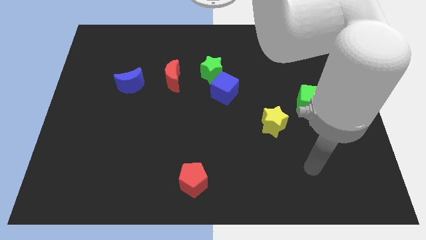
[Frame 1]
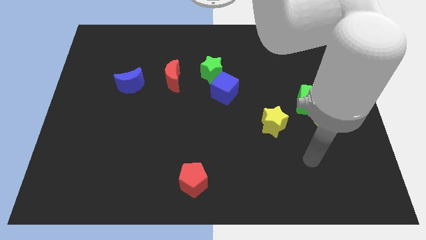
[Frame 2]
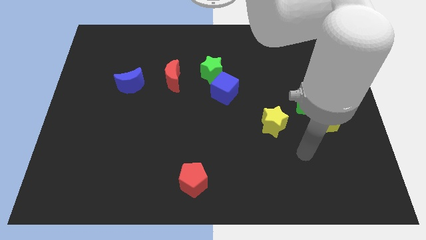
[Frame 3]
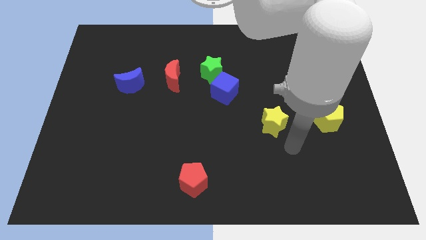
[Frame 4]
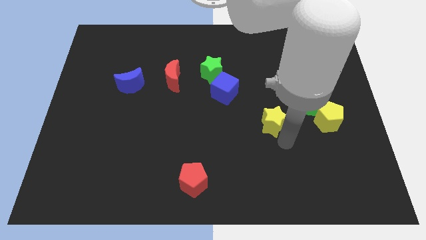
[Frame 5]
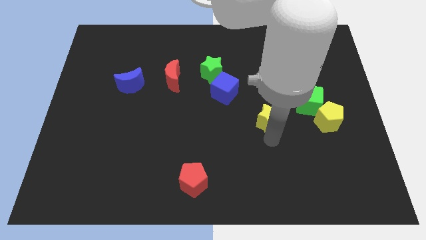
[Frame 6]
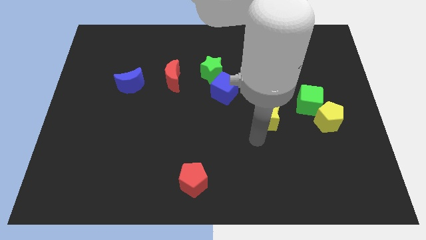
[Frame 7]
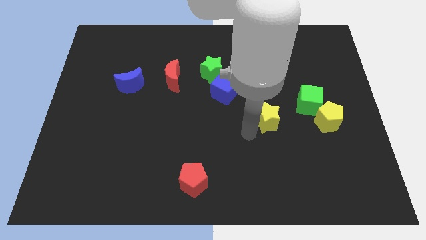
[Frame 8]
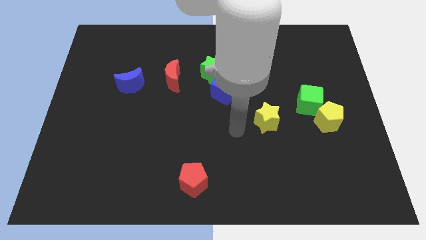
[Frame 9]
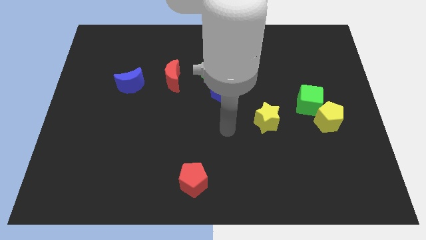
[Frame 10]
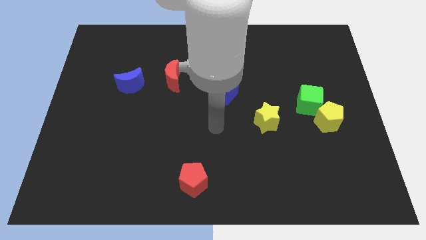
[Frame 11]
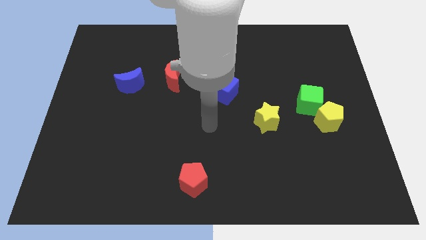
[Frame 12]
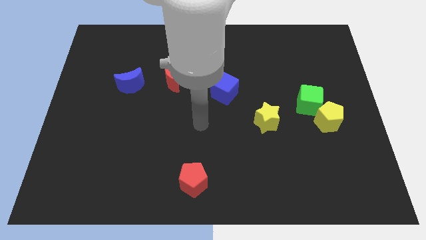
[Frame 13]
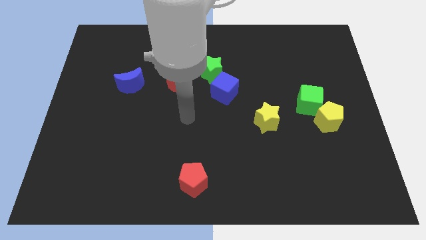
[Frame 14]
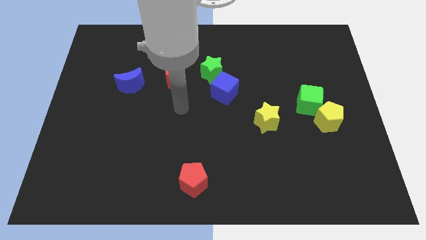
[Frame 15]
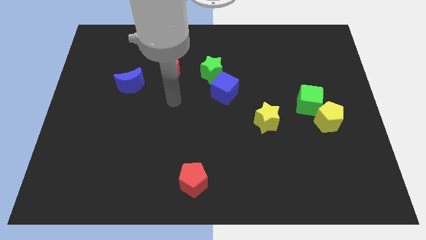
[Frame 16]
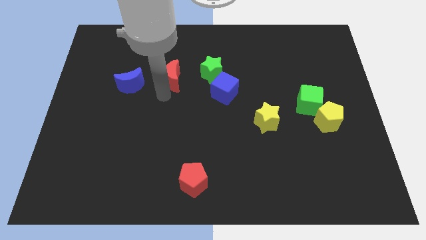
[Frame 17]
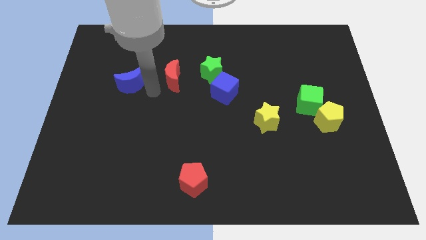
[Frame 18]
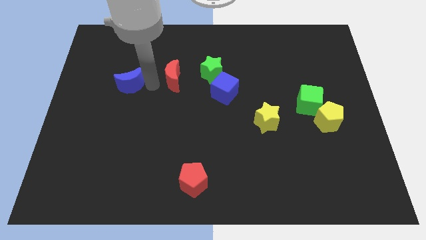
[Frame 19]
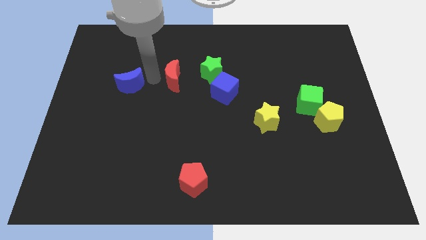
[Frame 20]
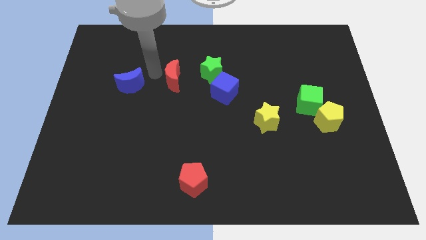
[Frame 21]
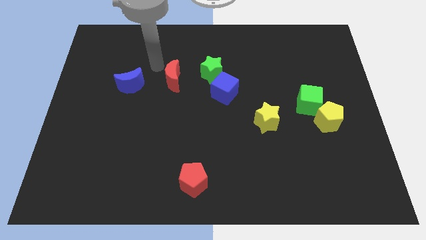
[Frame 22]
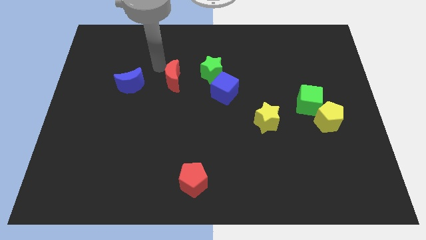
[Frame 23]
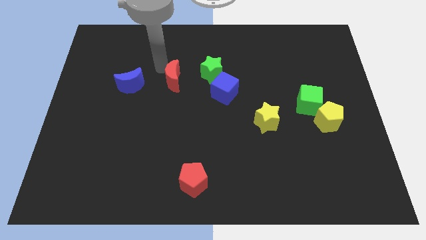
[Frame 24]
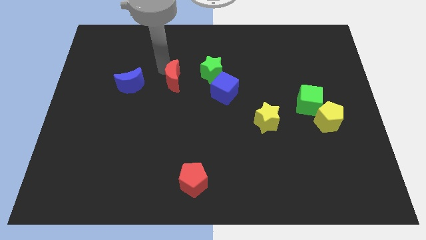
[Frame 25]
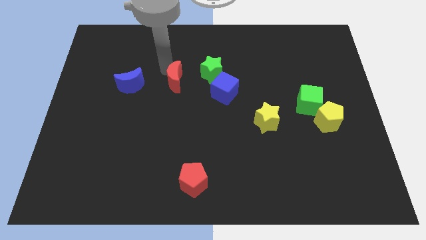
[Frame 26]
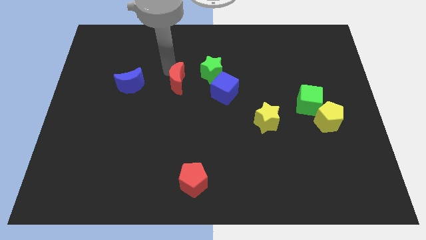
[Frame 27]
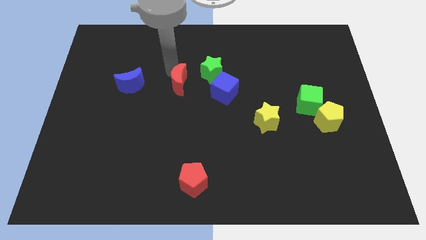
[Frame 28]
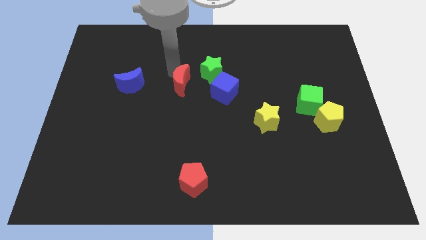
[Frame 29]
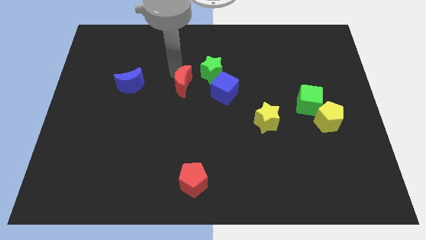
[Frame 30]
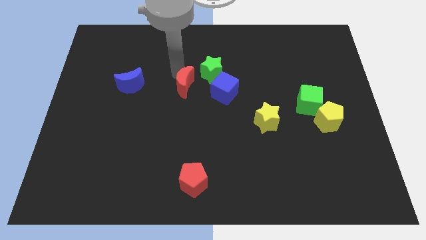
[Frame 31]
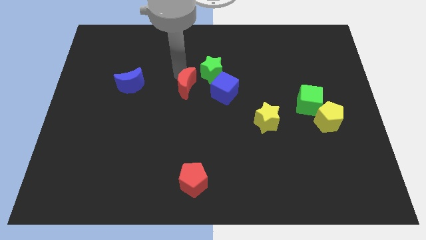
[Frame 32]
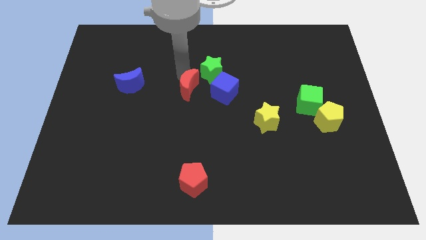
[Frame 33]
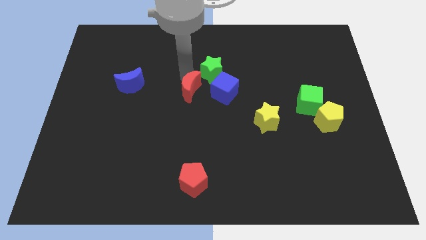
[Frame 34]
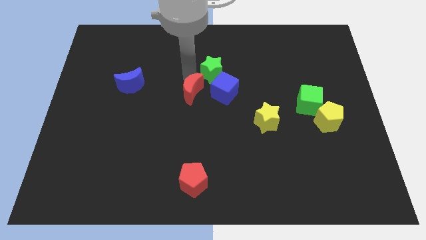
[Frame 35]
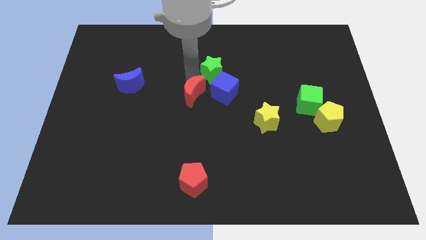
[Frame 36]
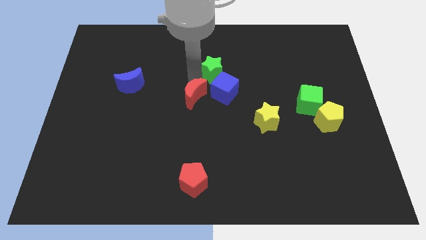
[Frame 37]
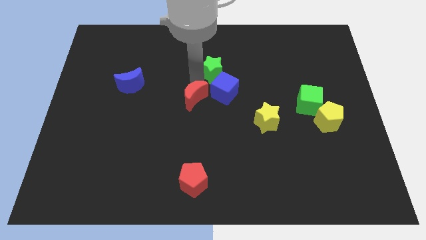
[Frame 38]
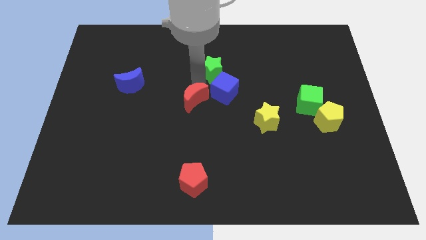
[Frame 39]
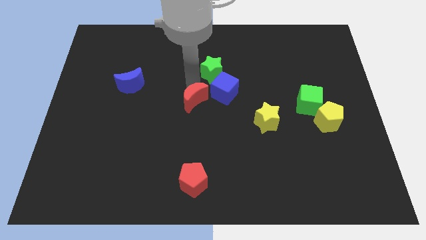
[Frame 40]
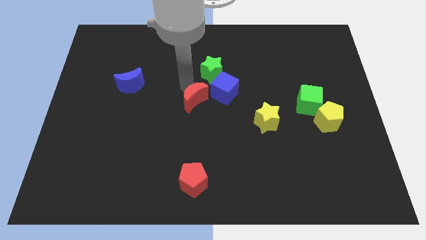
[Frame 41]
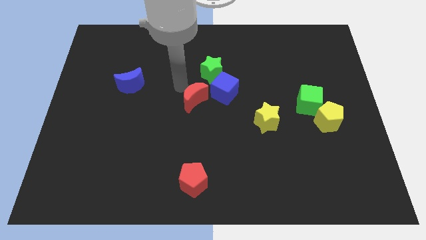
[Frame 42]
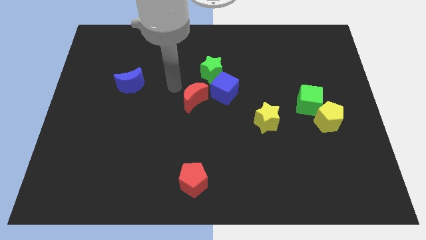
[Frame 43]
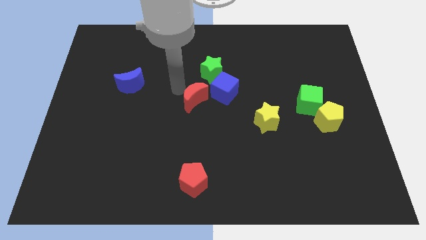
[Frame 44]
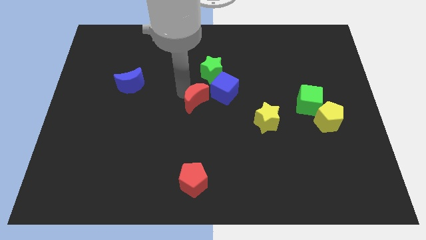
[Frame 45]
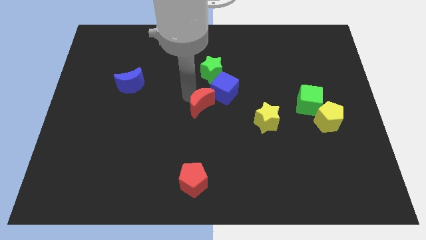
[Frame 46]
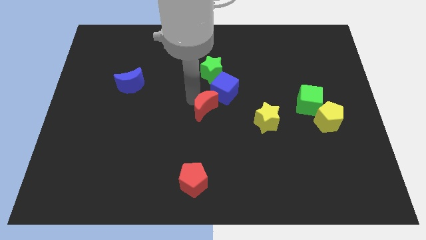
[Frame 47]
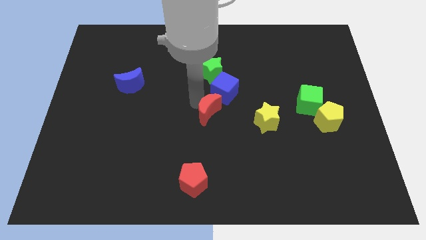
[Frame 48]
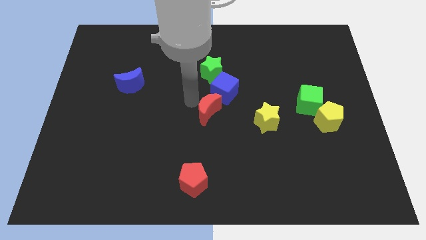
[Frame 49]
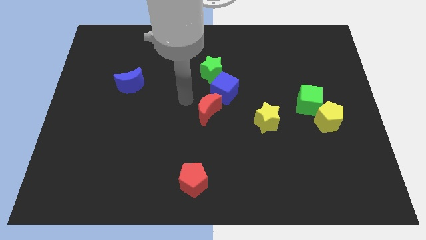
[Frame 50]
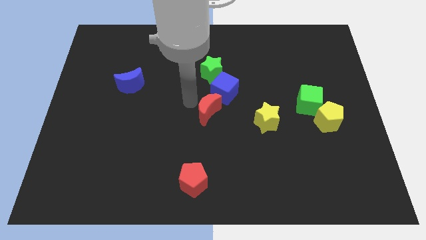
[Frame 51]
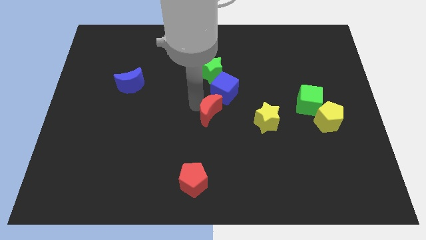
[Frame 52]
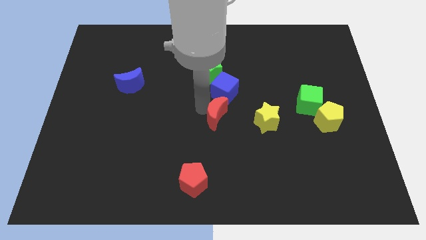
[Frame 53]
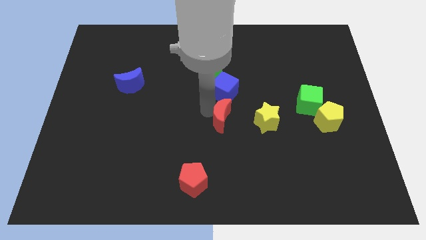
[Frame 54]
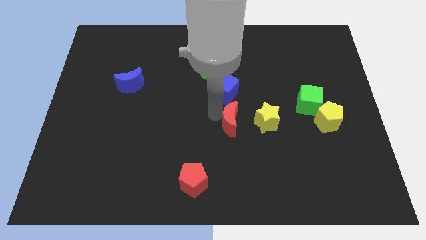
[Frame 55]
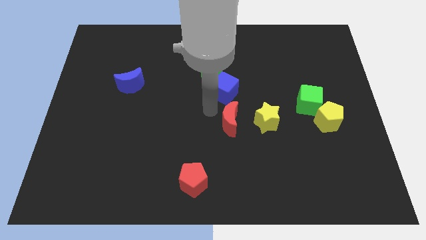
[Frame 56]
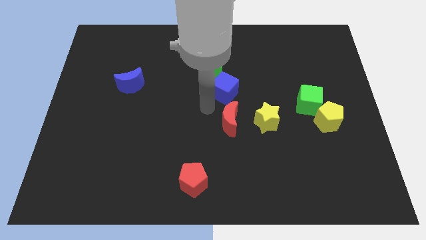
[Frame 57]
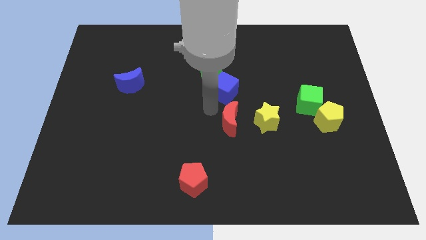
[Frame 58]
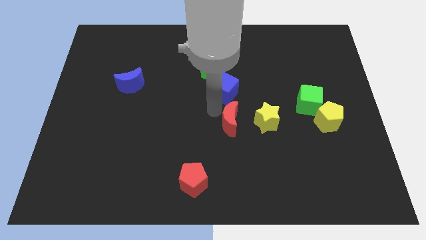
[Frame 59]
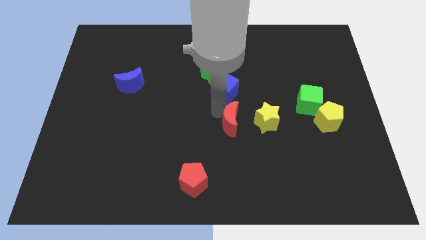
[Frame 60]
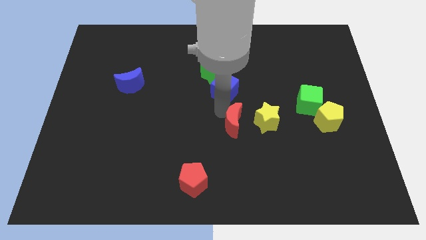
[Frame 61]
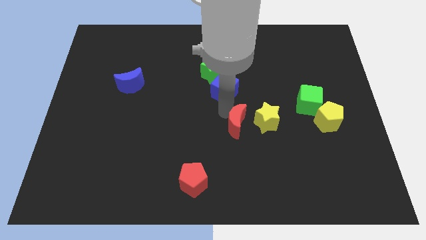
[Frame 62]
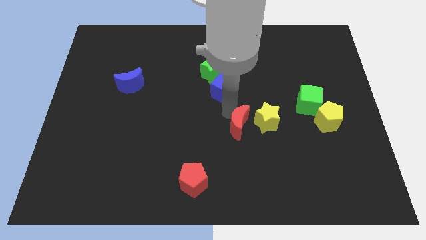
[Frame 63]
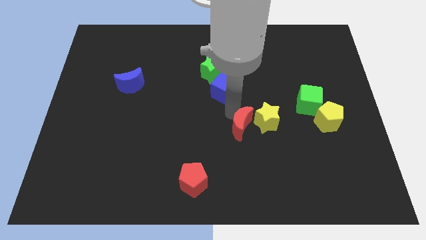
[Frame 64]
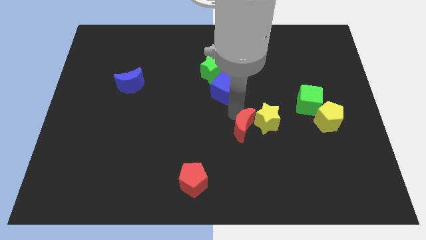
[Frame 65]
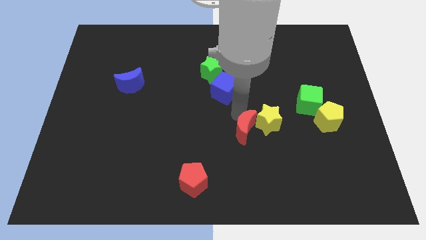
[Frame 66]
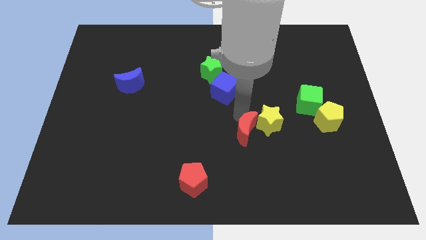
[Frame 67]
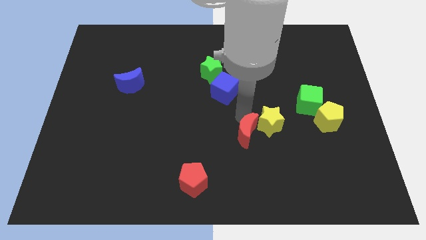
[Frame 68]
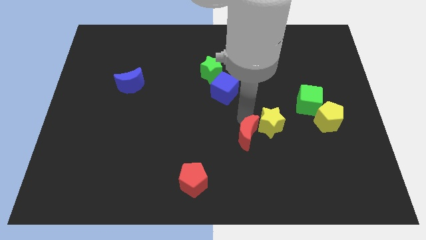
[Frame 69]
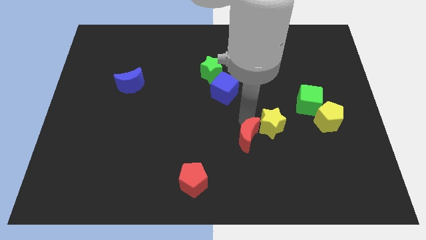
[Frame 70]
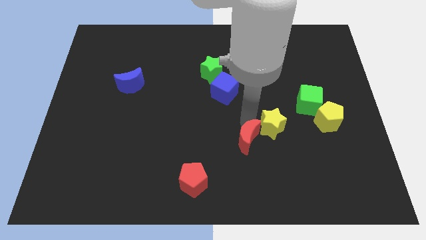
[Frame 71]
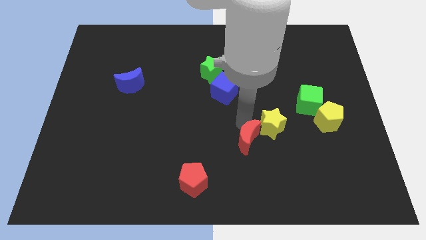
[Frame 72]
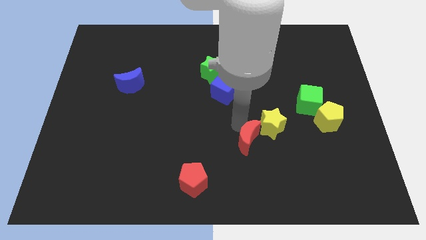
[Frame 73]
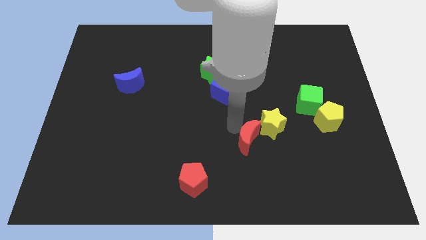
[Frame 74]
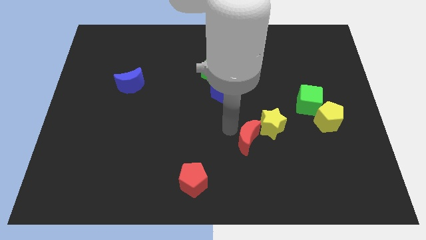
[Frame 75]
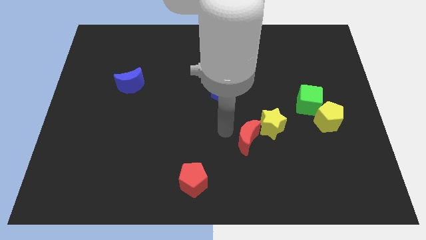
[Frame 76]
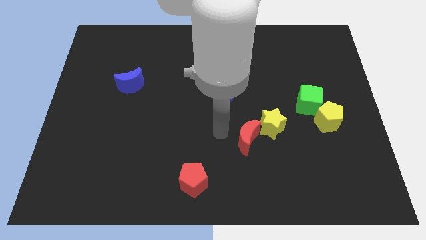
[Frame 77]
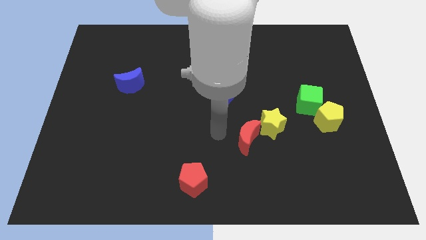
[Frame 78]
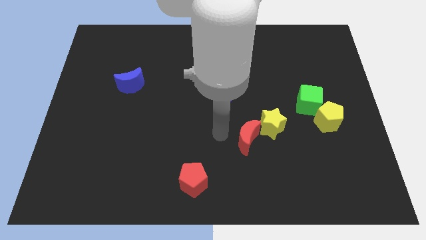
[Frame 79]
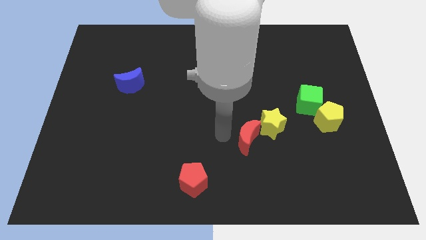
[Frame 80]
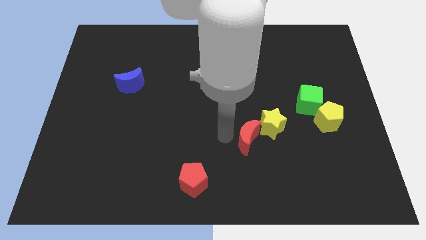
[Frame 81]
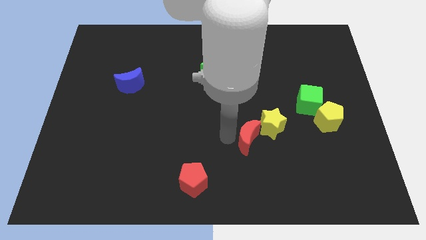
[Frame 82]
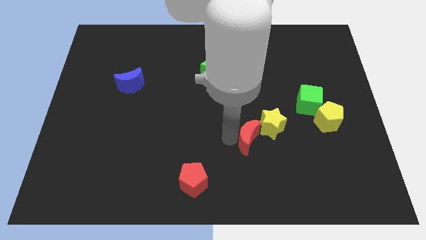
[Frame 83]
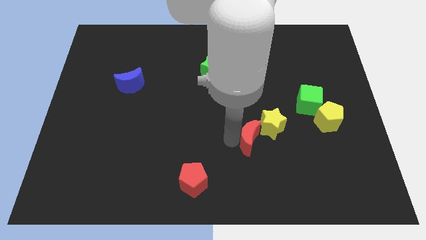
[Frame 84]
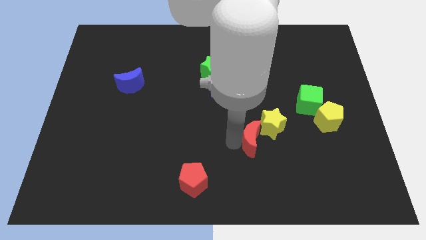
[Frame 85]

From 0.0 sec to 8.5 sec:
put the red moon to the bottom of the yellow star
